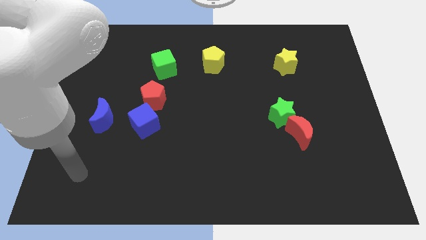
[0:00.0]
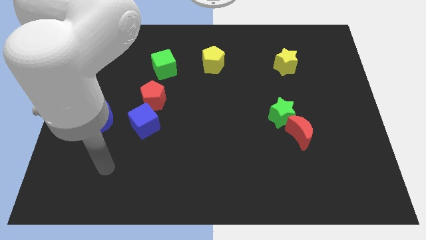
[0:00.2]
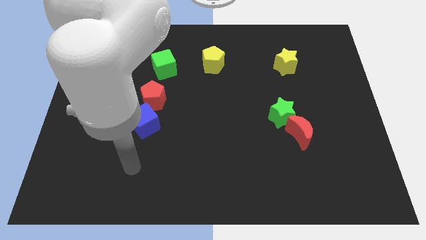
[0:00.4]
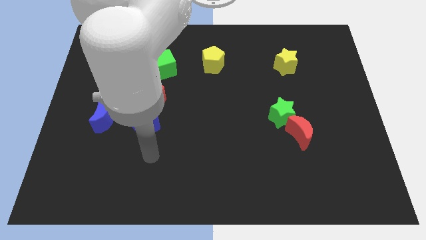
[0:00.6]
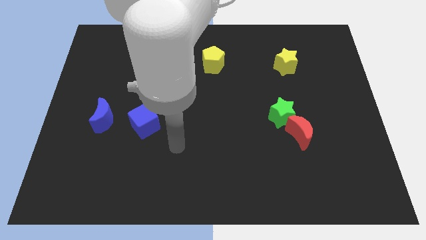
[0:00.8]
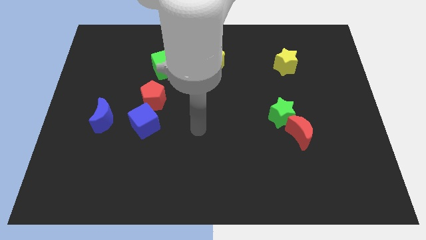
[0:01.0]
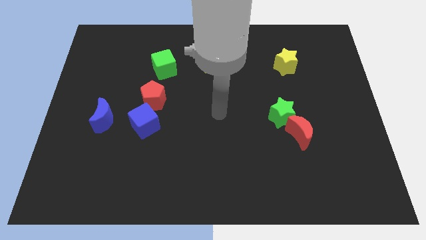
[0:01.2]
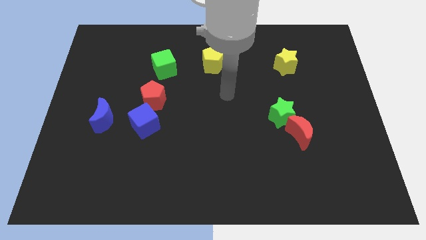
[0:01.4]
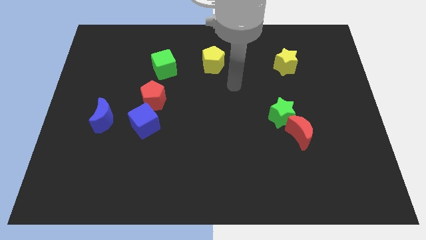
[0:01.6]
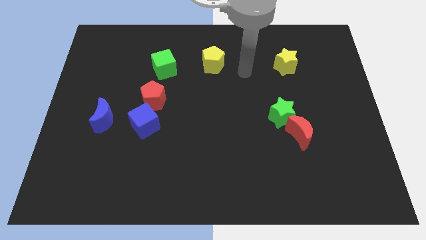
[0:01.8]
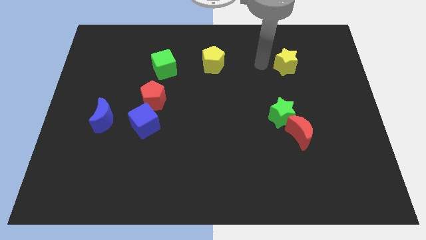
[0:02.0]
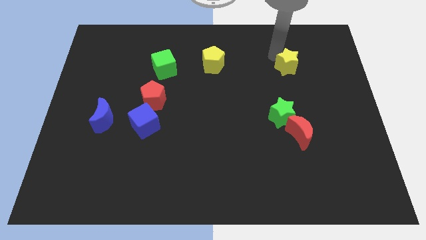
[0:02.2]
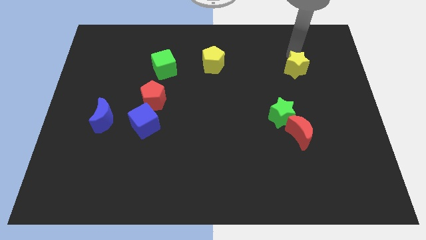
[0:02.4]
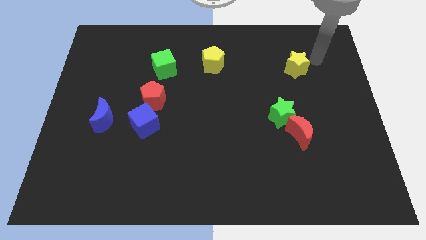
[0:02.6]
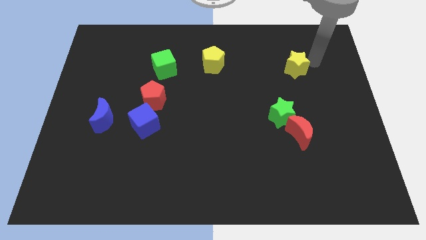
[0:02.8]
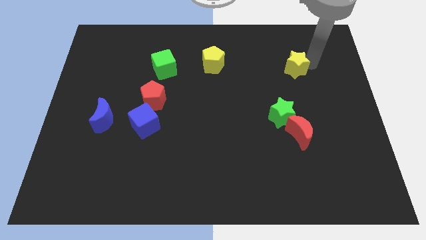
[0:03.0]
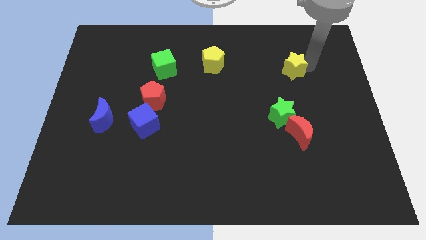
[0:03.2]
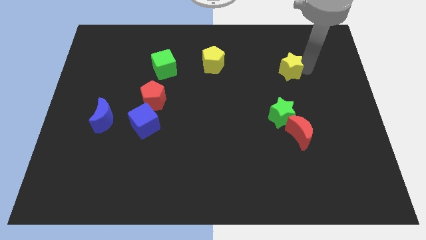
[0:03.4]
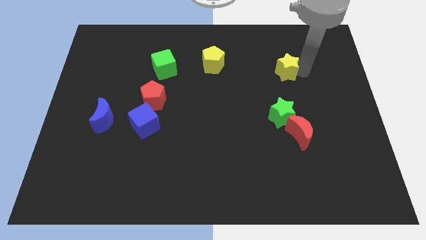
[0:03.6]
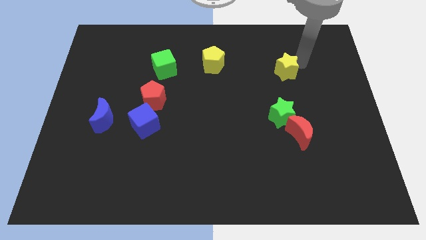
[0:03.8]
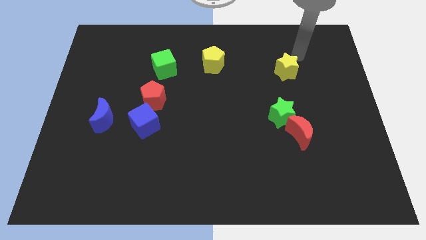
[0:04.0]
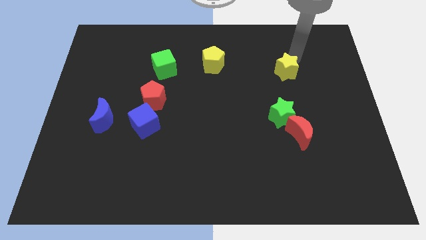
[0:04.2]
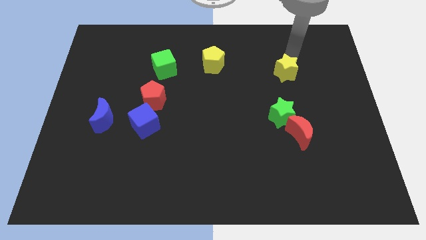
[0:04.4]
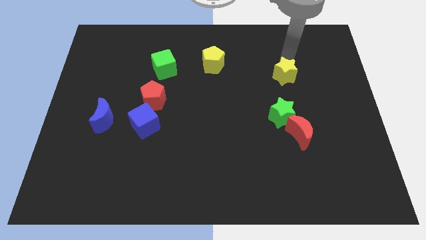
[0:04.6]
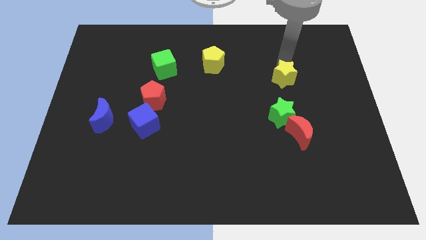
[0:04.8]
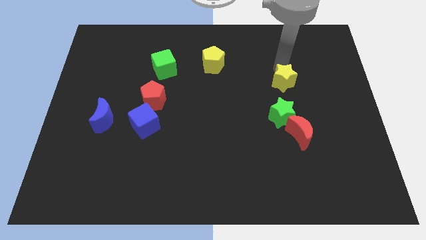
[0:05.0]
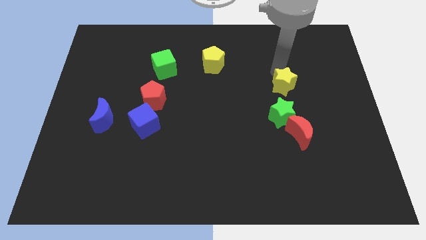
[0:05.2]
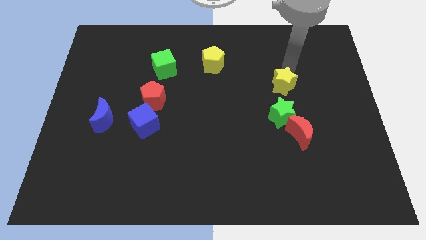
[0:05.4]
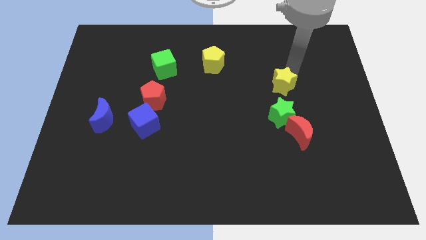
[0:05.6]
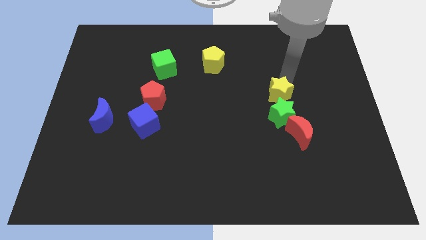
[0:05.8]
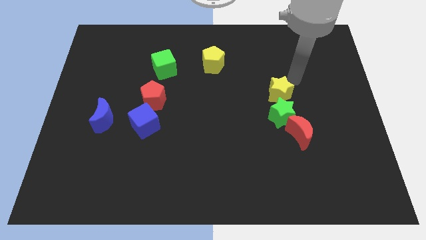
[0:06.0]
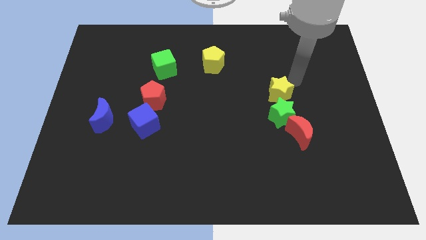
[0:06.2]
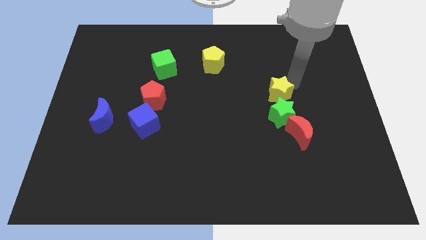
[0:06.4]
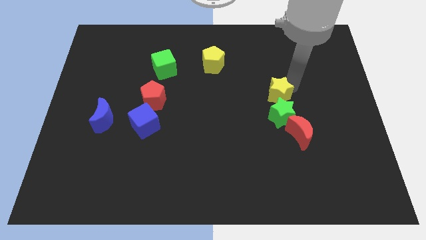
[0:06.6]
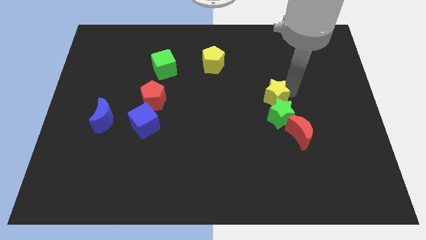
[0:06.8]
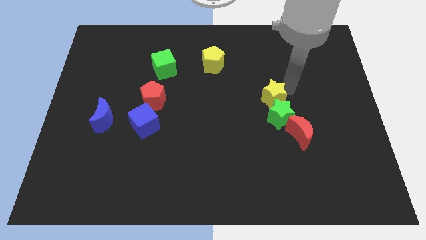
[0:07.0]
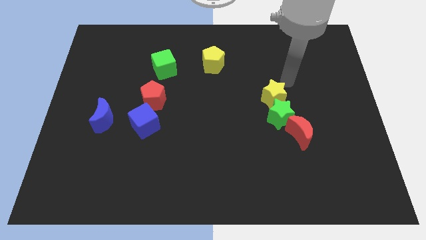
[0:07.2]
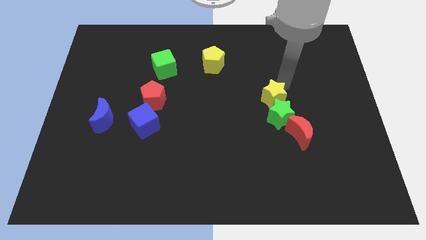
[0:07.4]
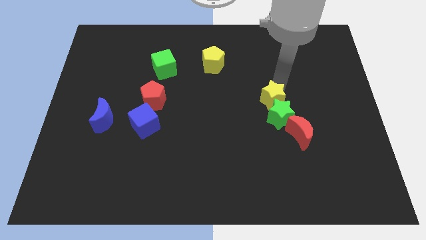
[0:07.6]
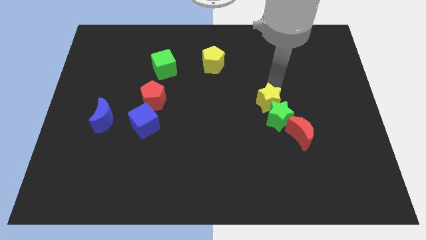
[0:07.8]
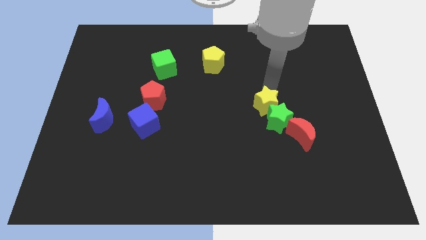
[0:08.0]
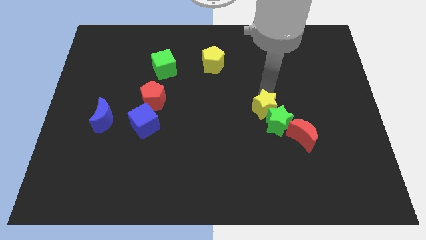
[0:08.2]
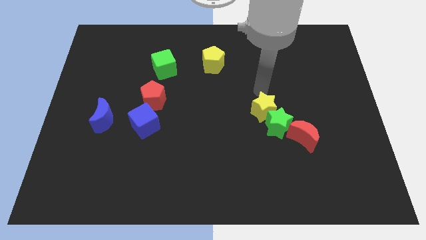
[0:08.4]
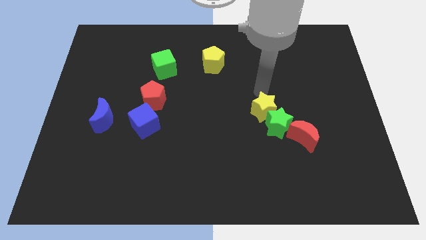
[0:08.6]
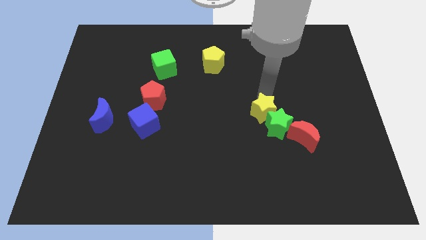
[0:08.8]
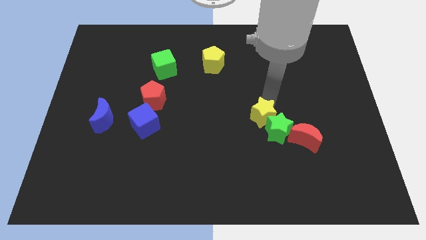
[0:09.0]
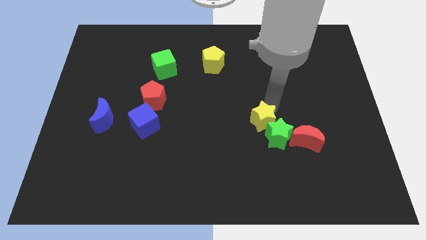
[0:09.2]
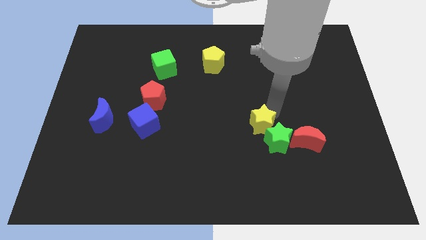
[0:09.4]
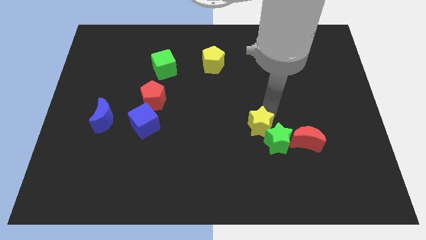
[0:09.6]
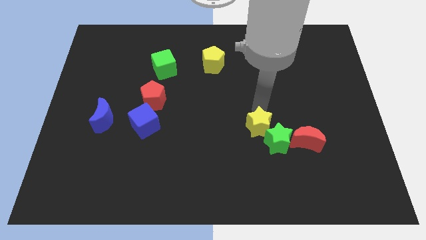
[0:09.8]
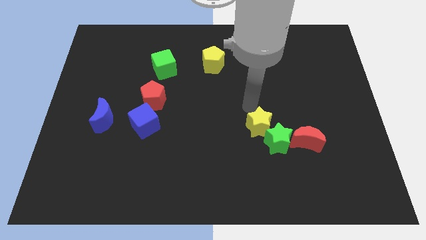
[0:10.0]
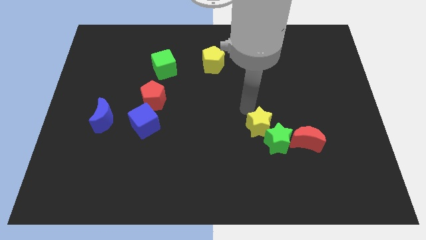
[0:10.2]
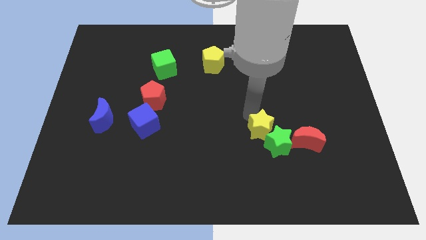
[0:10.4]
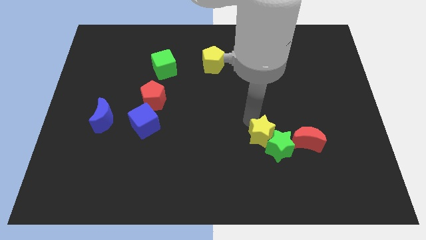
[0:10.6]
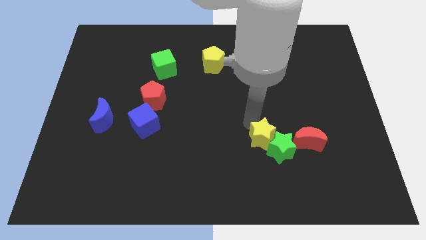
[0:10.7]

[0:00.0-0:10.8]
slide the yellow star down

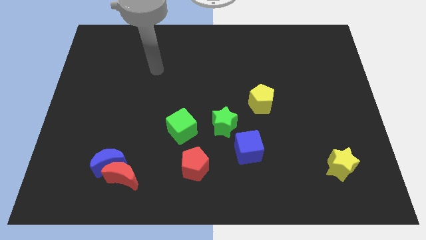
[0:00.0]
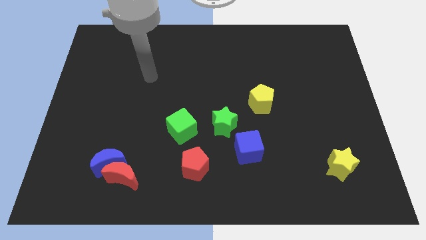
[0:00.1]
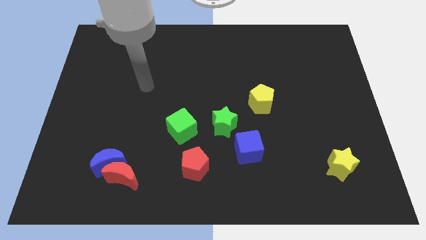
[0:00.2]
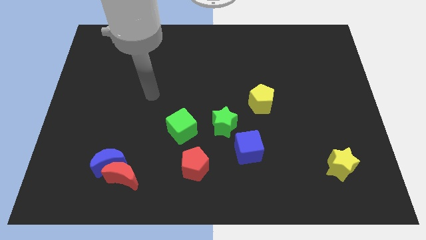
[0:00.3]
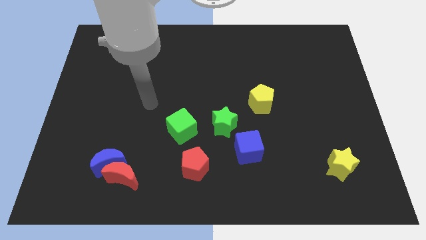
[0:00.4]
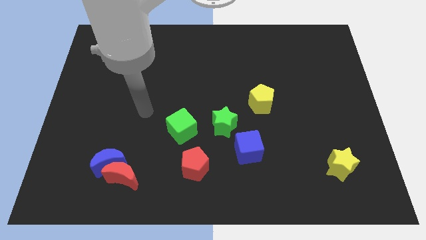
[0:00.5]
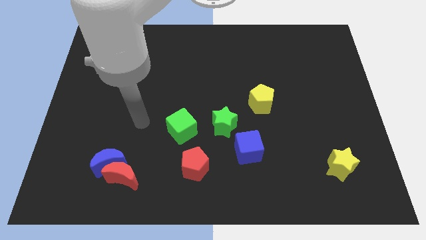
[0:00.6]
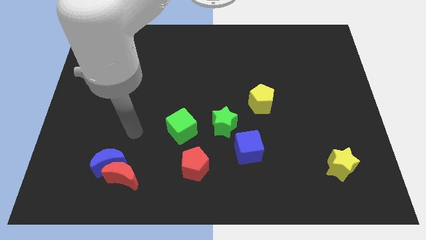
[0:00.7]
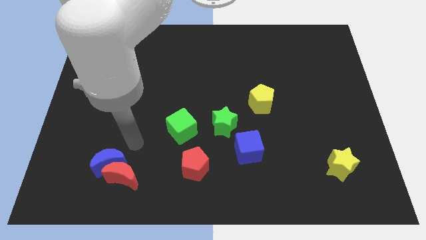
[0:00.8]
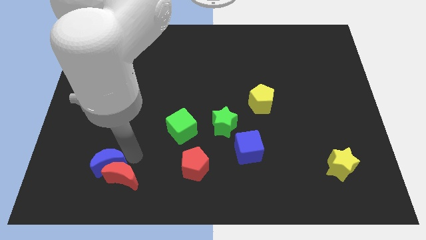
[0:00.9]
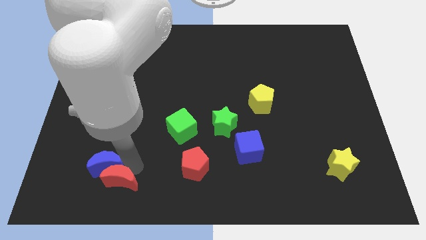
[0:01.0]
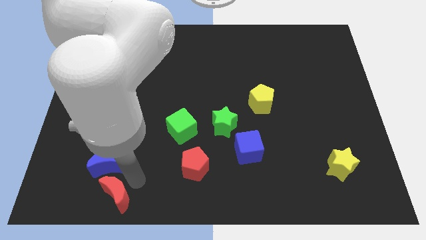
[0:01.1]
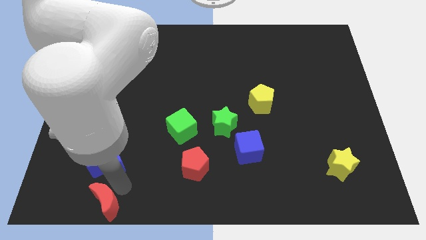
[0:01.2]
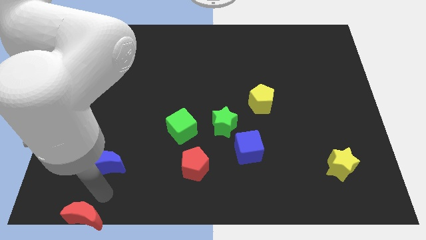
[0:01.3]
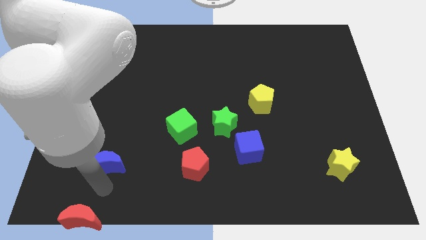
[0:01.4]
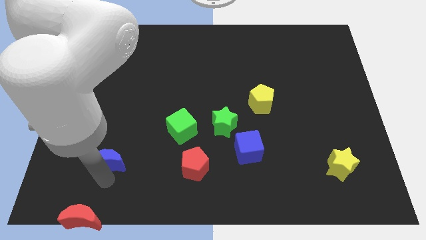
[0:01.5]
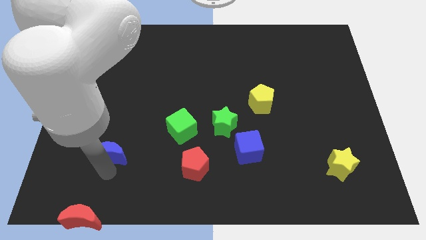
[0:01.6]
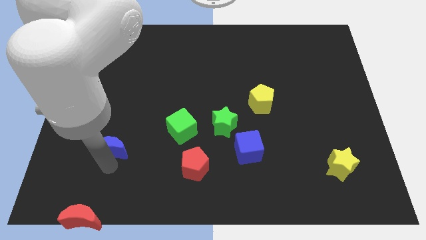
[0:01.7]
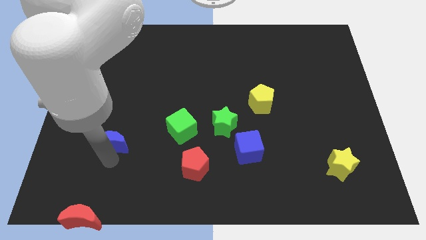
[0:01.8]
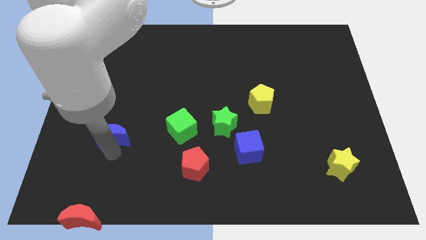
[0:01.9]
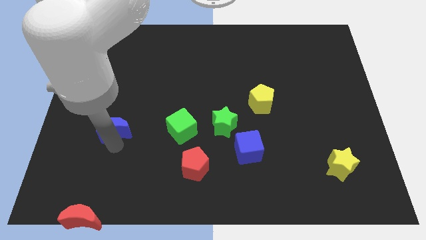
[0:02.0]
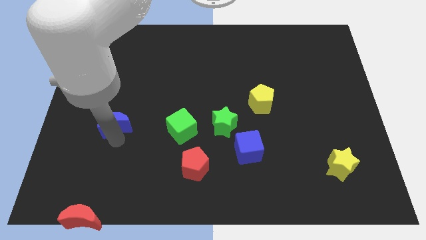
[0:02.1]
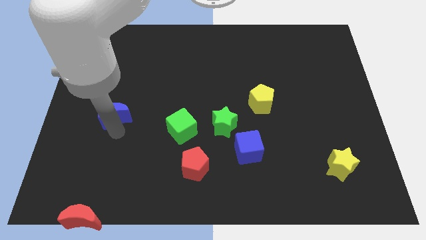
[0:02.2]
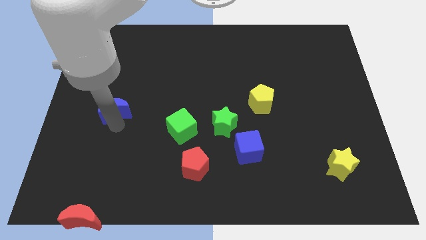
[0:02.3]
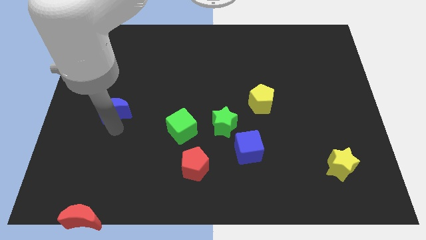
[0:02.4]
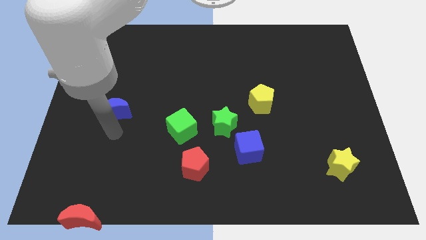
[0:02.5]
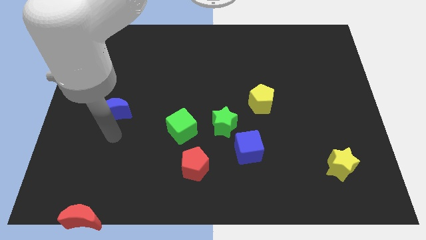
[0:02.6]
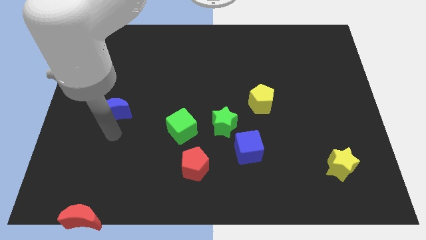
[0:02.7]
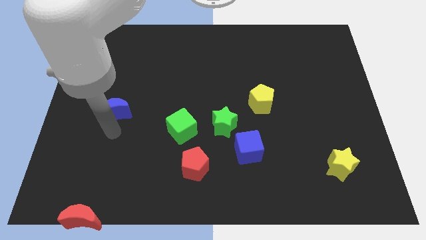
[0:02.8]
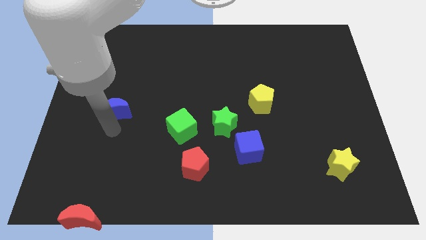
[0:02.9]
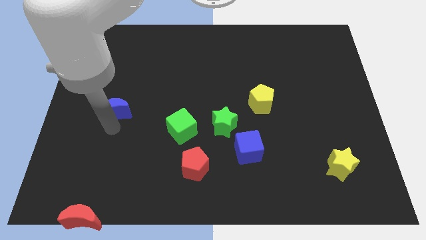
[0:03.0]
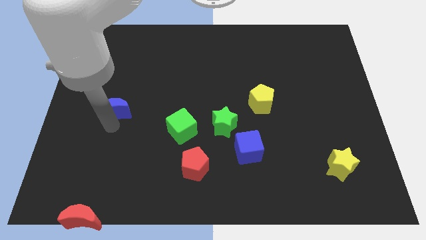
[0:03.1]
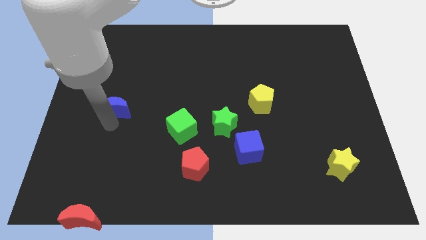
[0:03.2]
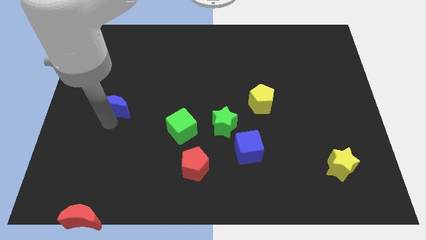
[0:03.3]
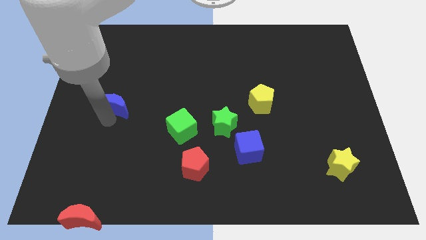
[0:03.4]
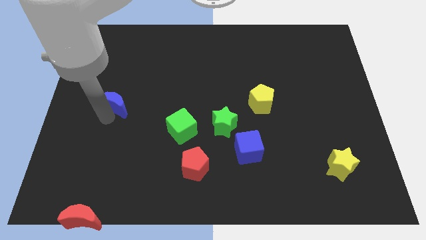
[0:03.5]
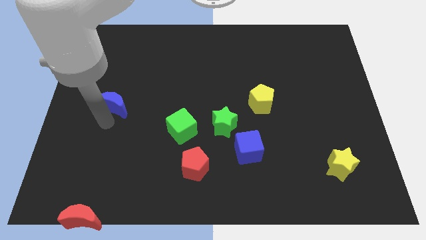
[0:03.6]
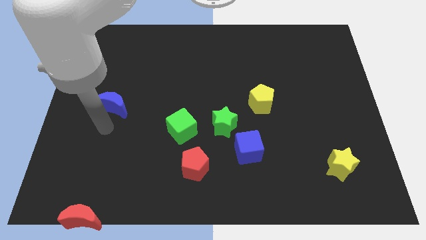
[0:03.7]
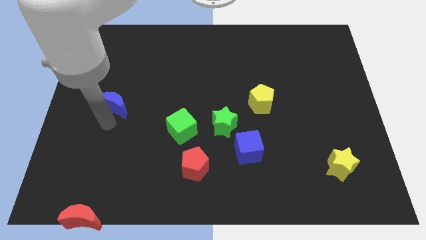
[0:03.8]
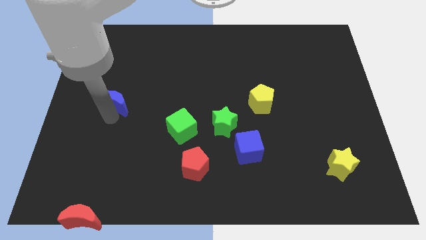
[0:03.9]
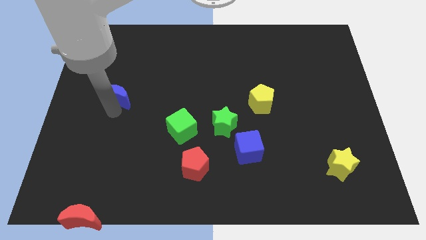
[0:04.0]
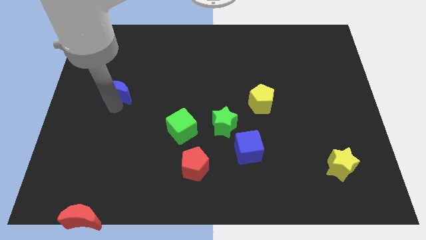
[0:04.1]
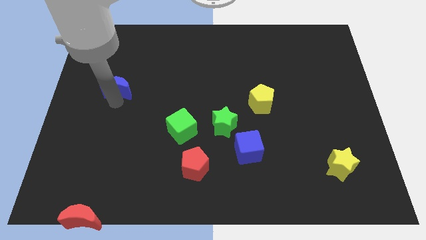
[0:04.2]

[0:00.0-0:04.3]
move the blue moon up
